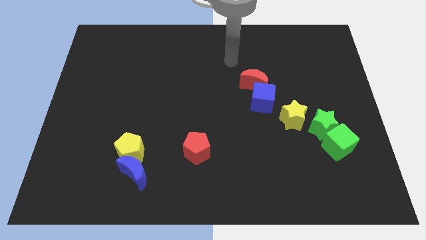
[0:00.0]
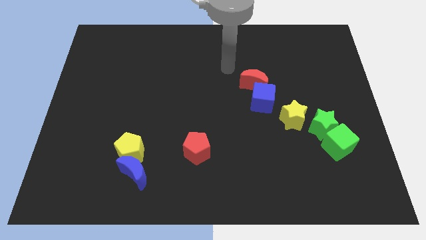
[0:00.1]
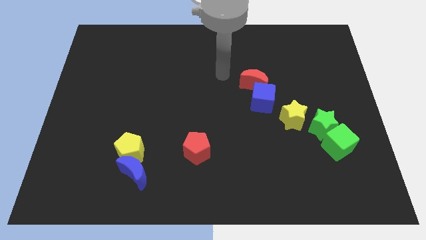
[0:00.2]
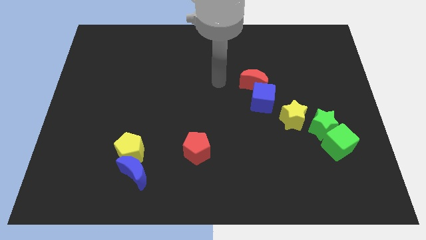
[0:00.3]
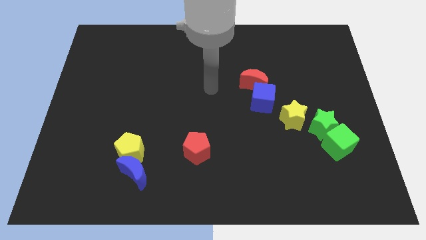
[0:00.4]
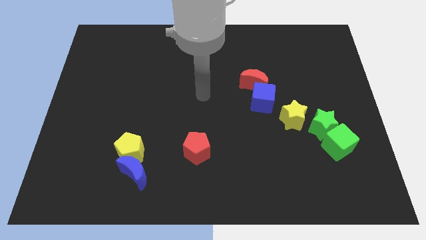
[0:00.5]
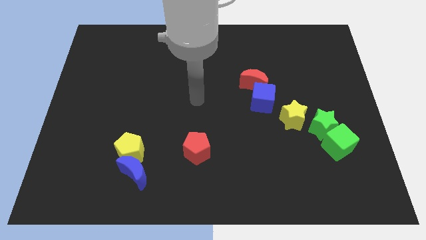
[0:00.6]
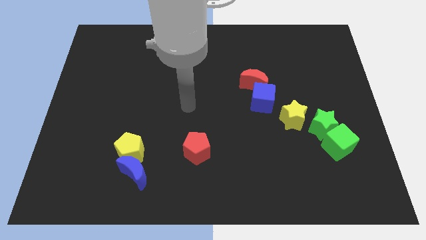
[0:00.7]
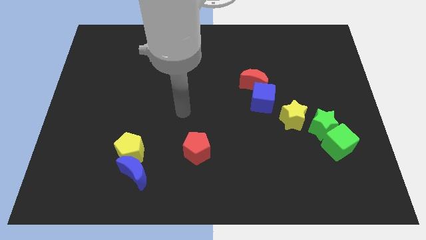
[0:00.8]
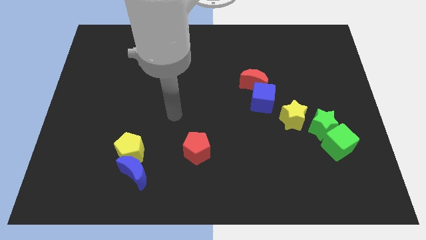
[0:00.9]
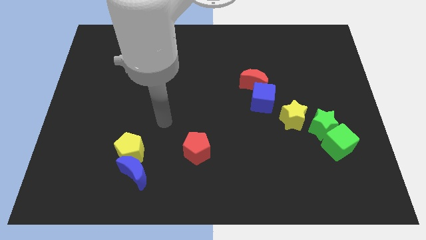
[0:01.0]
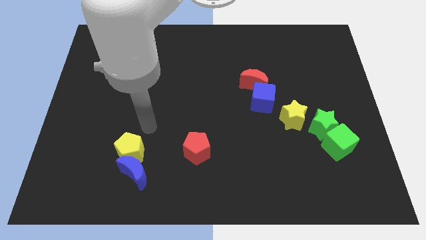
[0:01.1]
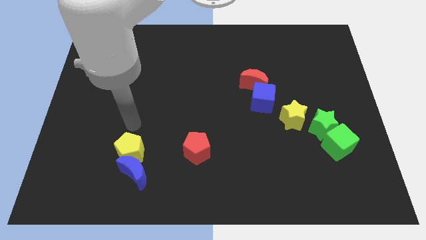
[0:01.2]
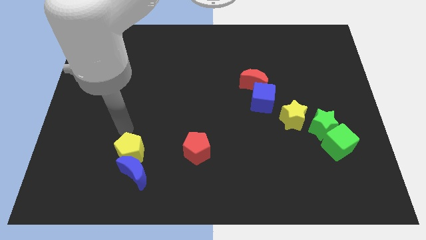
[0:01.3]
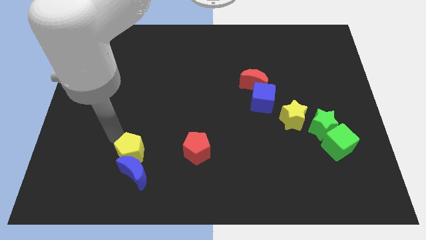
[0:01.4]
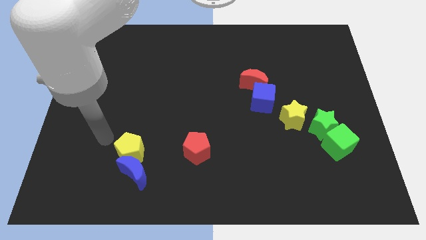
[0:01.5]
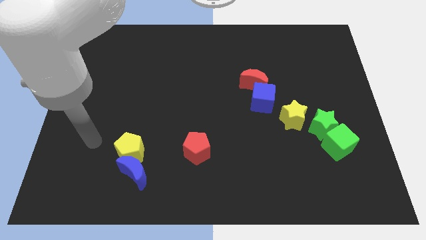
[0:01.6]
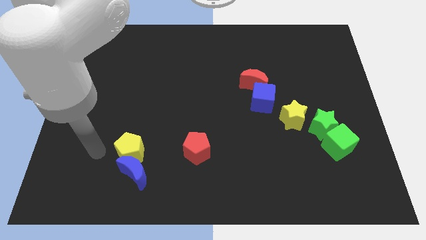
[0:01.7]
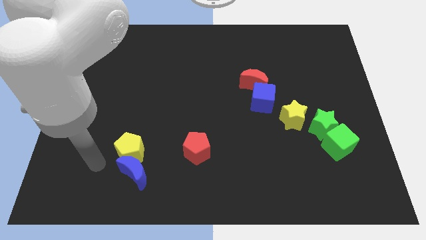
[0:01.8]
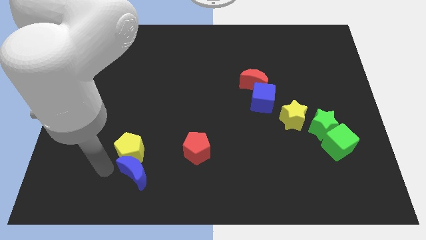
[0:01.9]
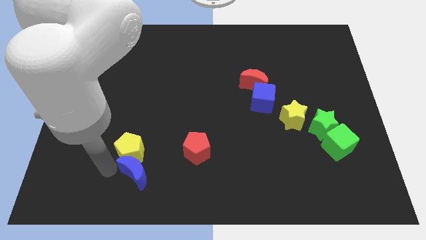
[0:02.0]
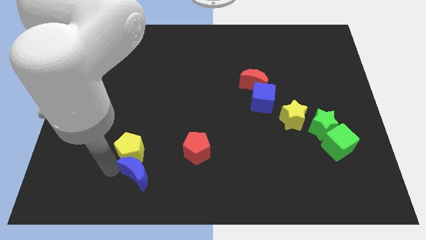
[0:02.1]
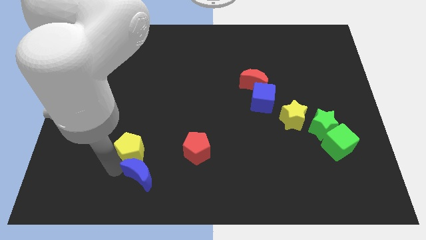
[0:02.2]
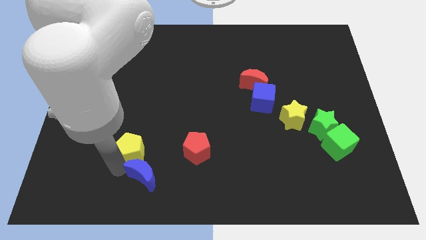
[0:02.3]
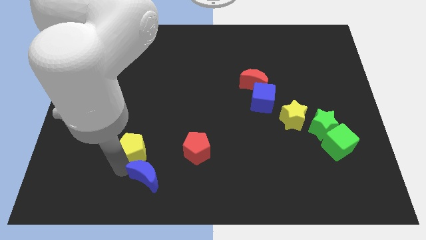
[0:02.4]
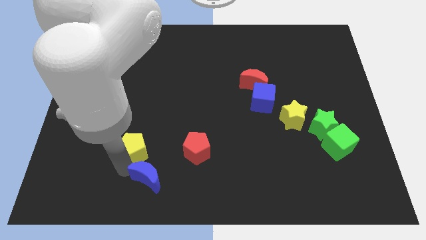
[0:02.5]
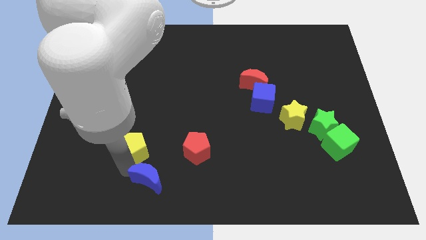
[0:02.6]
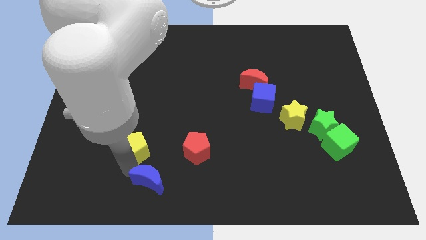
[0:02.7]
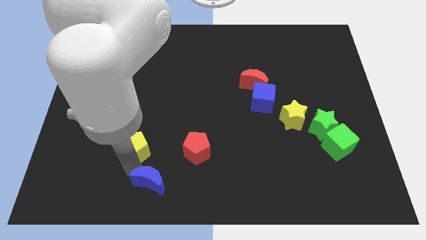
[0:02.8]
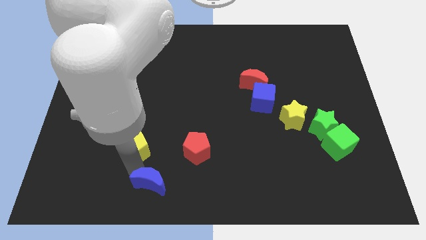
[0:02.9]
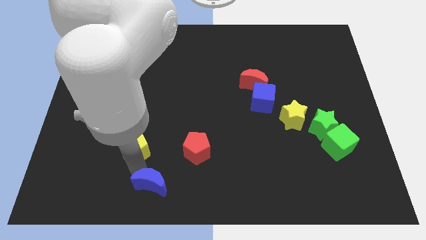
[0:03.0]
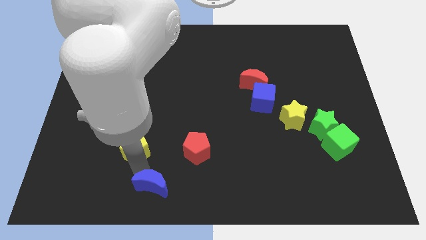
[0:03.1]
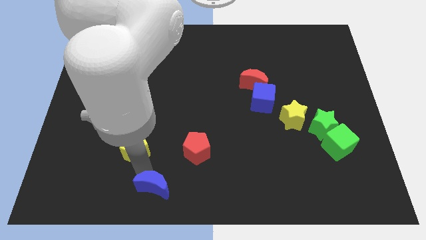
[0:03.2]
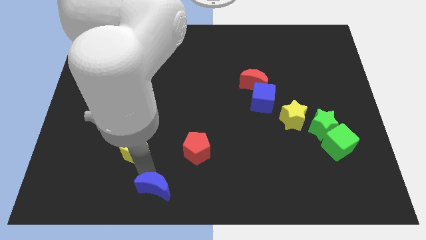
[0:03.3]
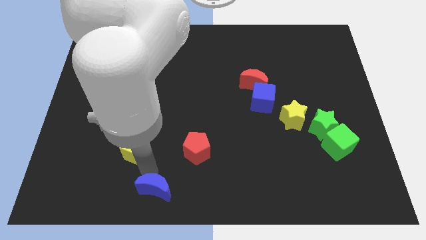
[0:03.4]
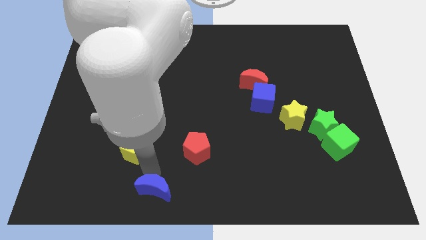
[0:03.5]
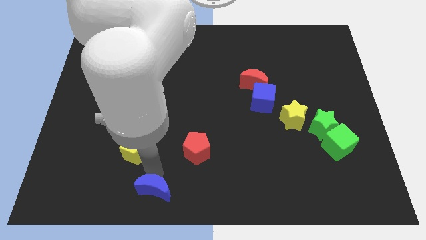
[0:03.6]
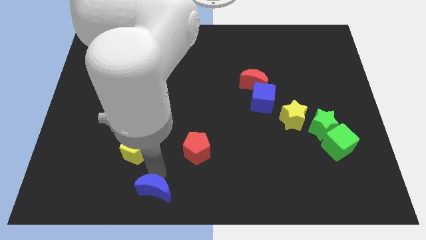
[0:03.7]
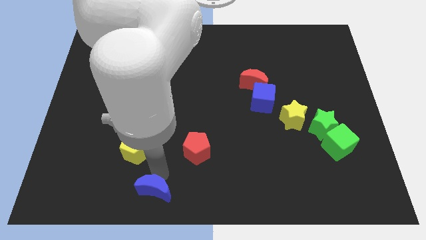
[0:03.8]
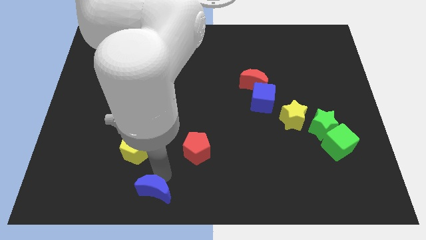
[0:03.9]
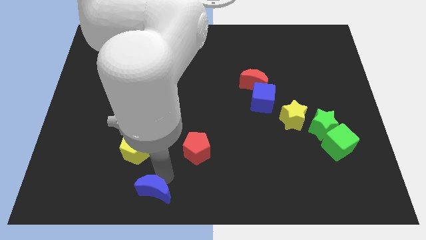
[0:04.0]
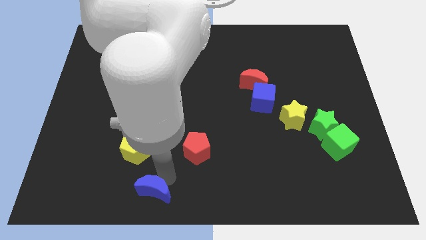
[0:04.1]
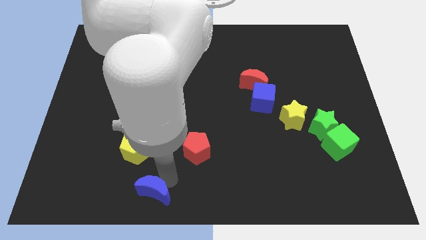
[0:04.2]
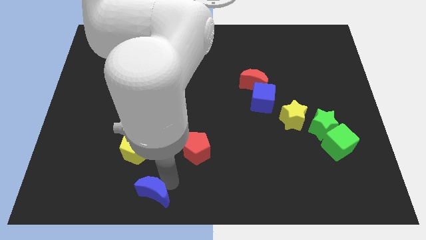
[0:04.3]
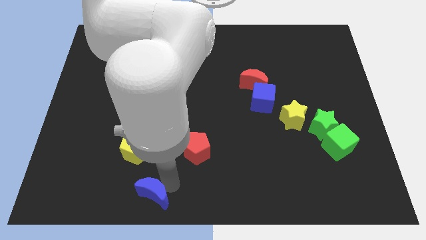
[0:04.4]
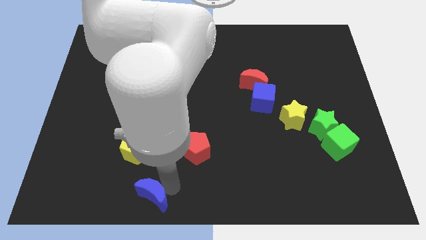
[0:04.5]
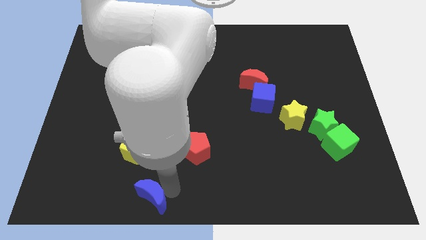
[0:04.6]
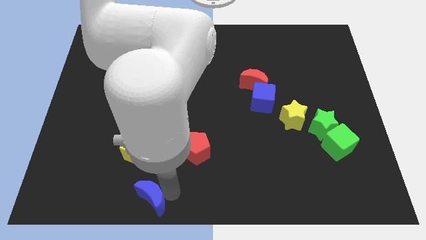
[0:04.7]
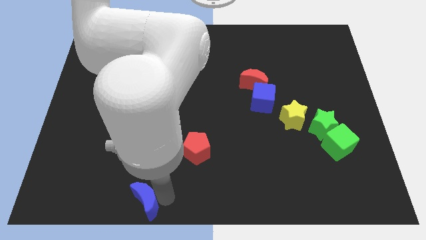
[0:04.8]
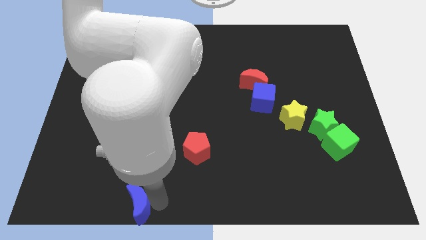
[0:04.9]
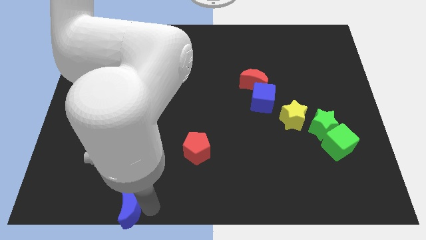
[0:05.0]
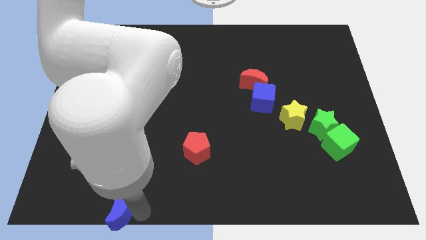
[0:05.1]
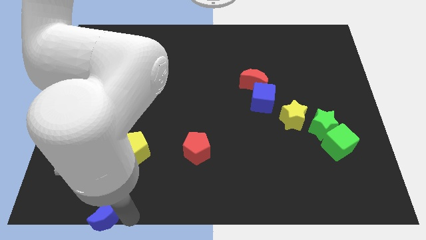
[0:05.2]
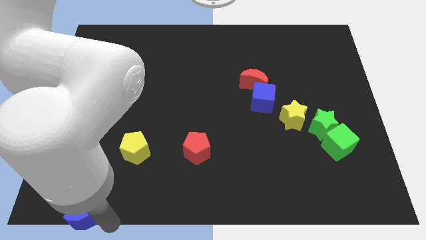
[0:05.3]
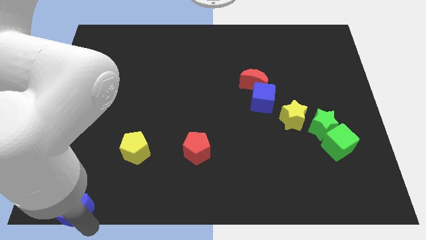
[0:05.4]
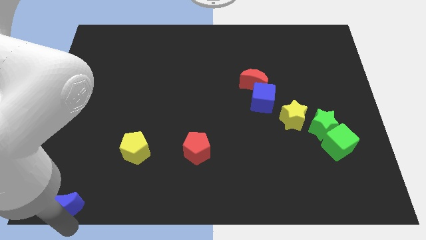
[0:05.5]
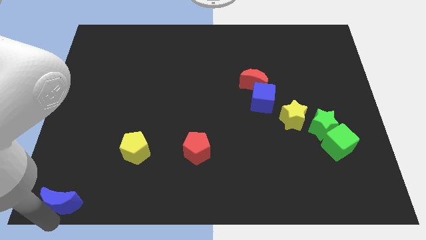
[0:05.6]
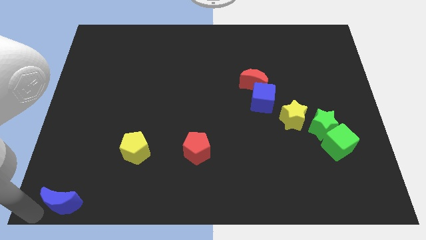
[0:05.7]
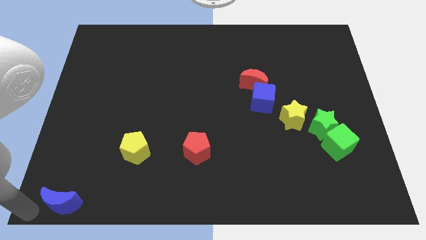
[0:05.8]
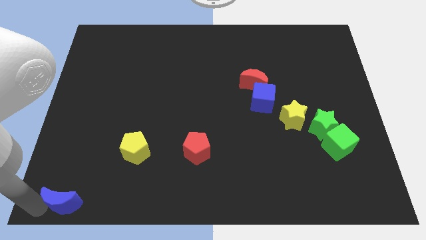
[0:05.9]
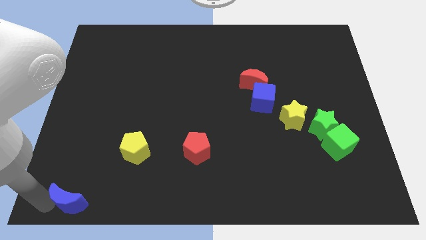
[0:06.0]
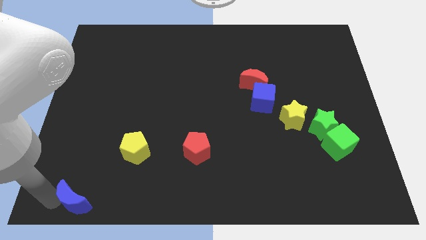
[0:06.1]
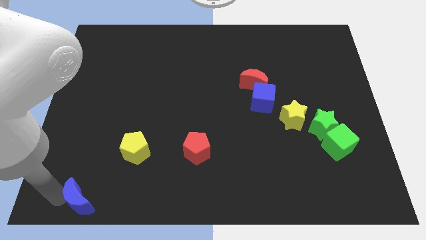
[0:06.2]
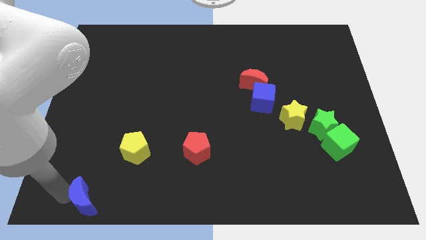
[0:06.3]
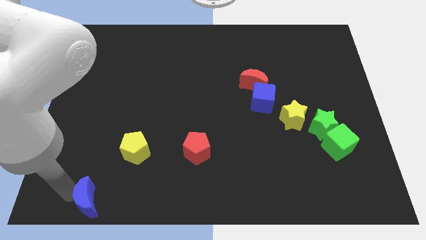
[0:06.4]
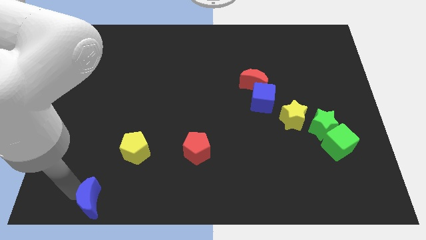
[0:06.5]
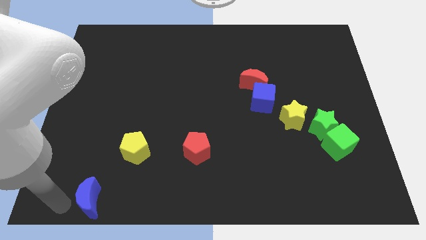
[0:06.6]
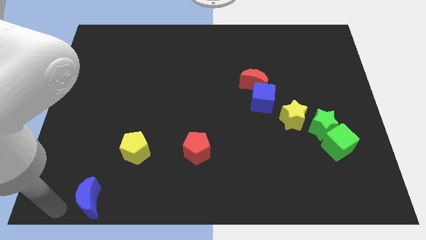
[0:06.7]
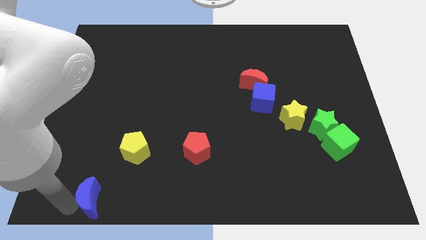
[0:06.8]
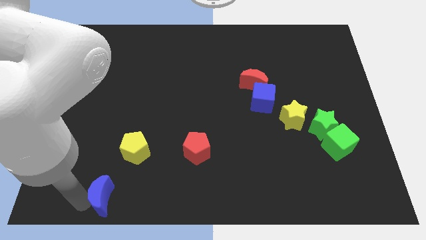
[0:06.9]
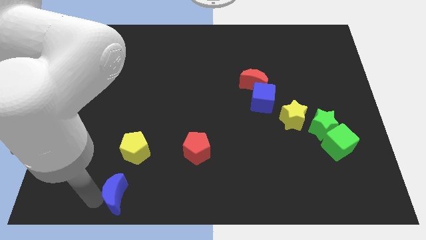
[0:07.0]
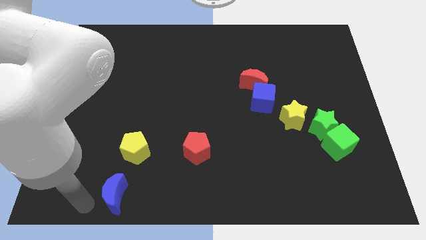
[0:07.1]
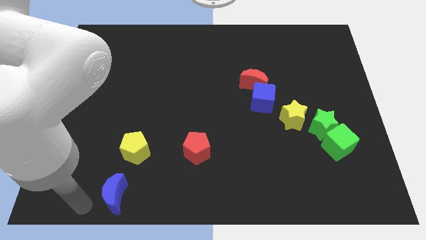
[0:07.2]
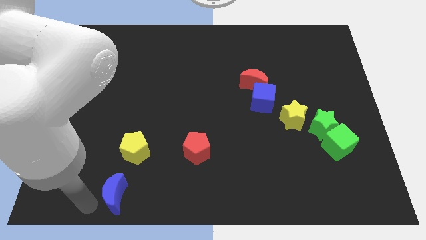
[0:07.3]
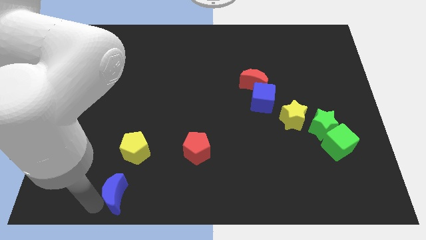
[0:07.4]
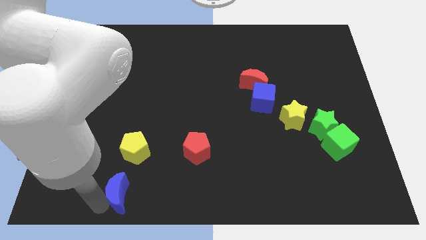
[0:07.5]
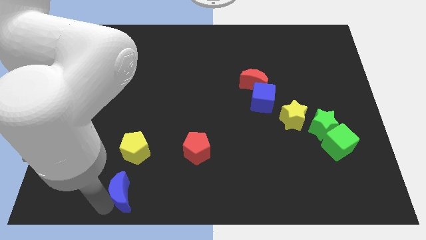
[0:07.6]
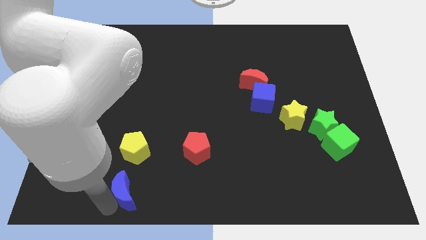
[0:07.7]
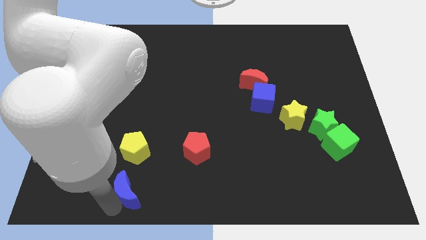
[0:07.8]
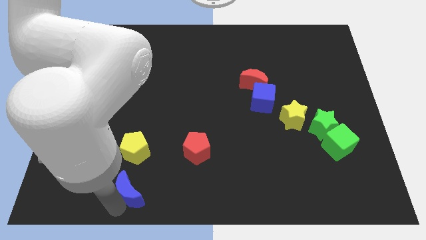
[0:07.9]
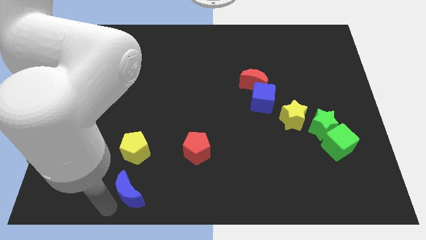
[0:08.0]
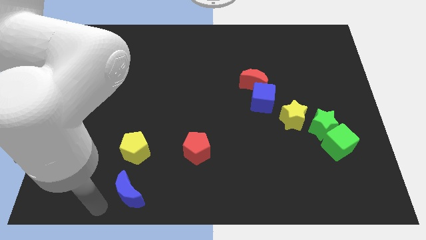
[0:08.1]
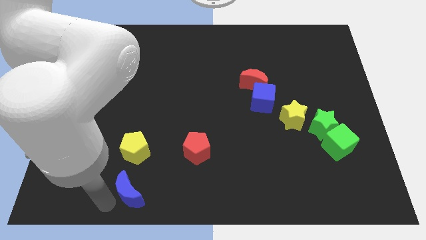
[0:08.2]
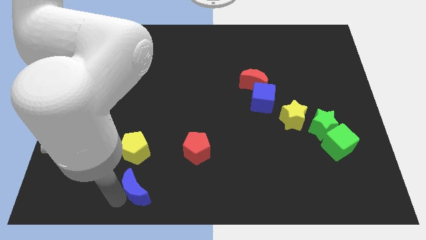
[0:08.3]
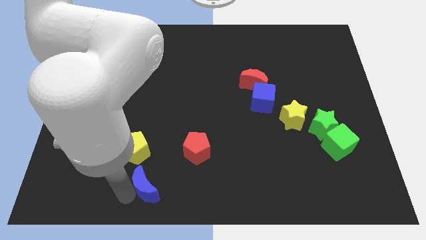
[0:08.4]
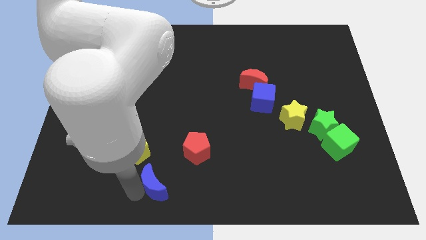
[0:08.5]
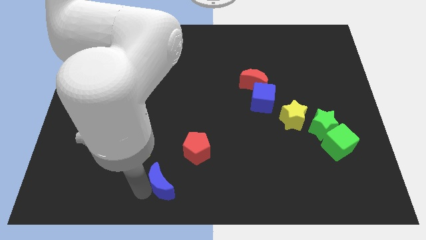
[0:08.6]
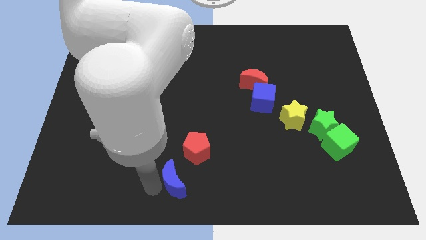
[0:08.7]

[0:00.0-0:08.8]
slightly push the blue moon right
